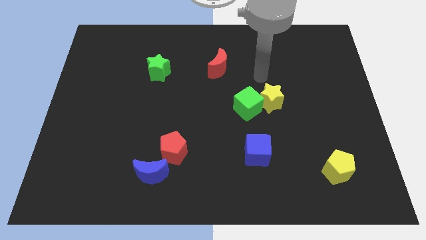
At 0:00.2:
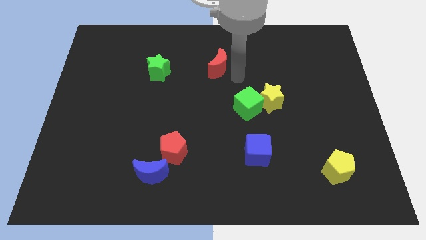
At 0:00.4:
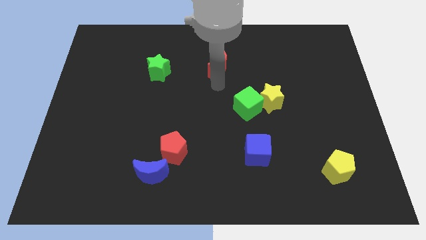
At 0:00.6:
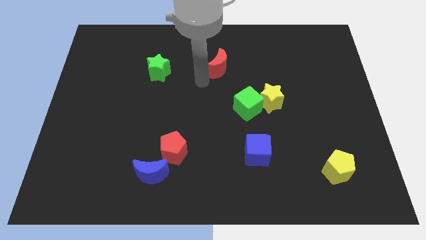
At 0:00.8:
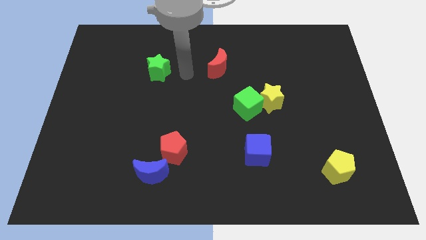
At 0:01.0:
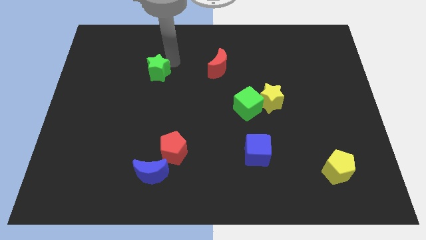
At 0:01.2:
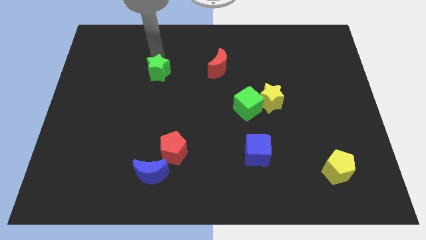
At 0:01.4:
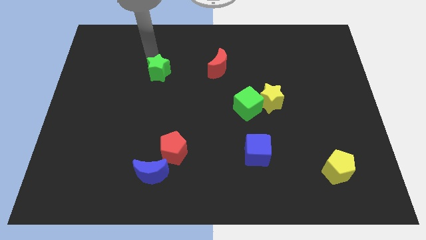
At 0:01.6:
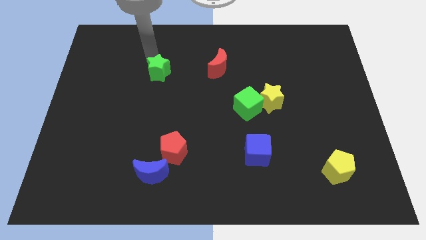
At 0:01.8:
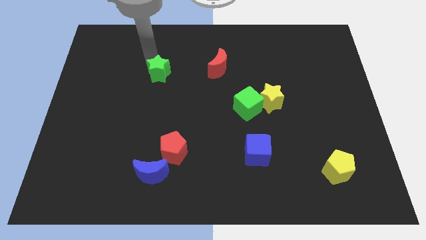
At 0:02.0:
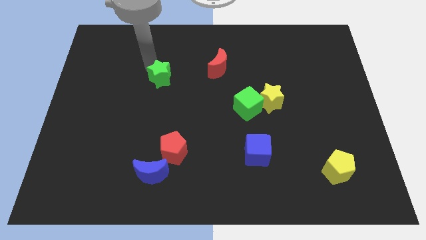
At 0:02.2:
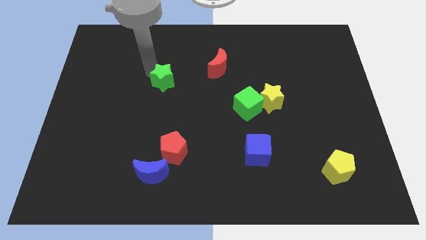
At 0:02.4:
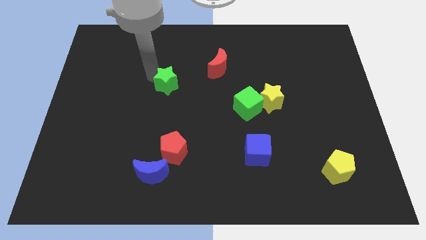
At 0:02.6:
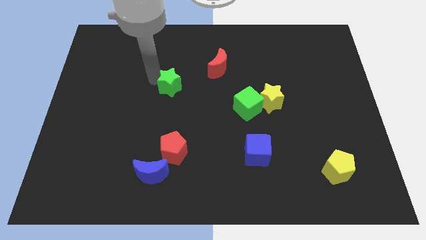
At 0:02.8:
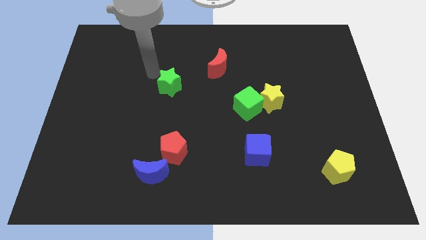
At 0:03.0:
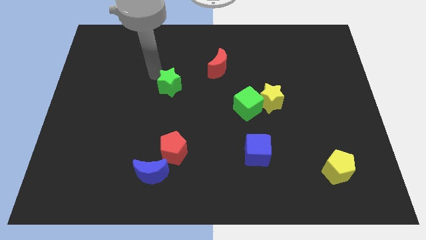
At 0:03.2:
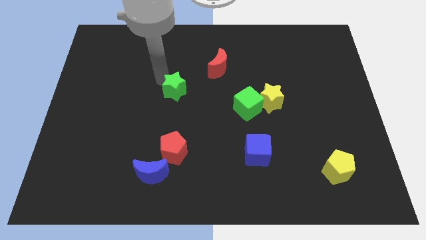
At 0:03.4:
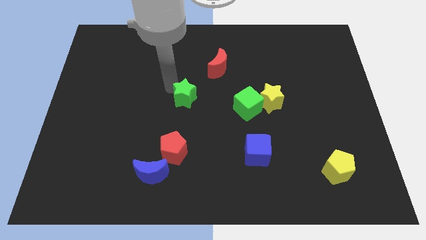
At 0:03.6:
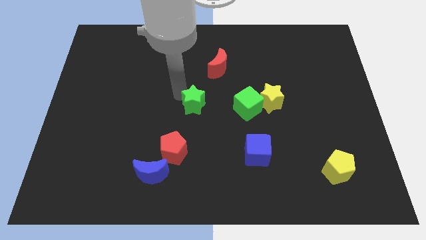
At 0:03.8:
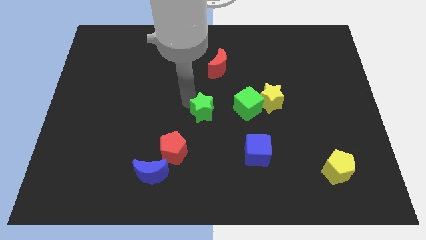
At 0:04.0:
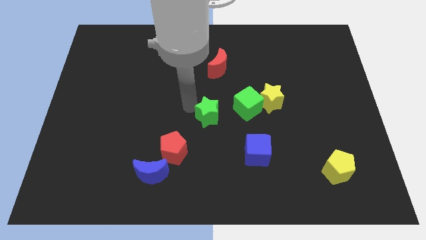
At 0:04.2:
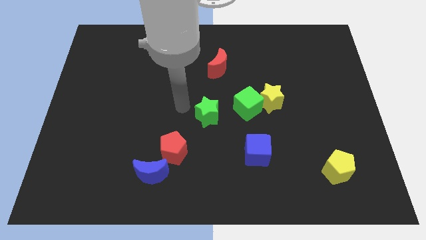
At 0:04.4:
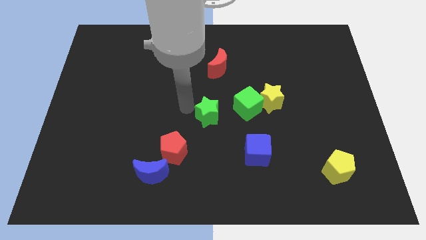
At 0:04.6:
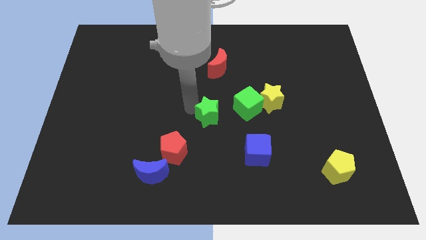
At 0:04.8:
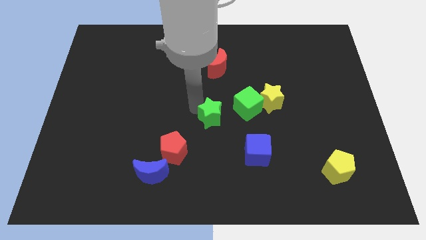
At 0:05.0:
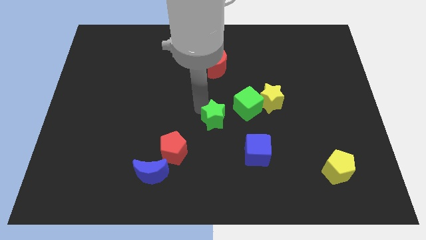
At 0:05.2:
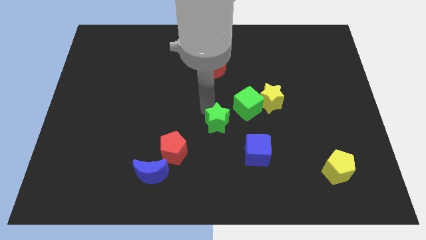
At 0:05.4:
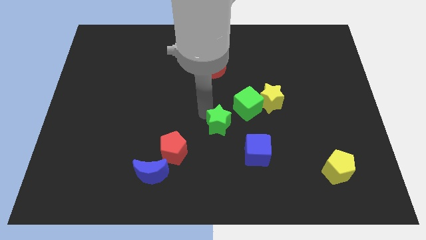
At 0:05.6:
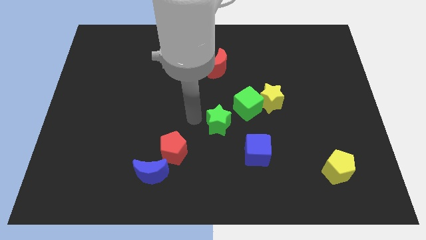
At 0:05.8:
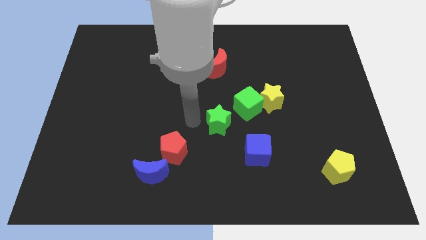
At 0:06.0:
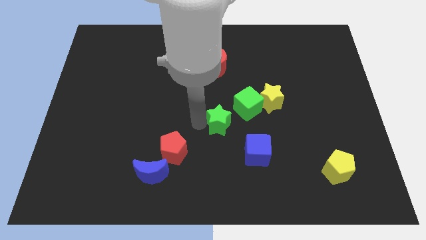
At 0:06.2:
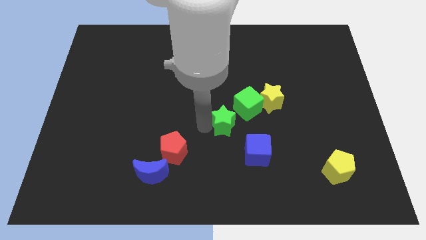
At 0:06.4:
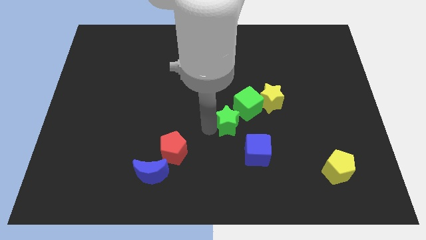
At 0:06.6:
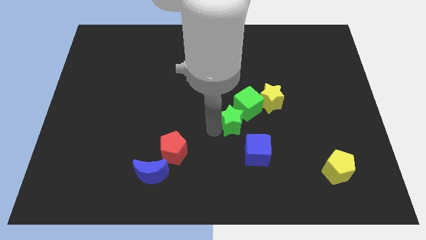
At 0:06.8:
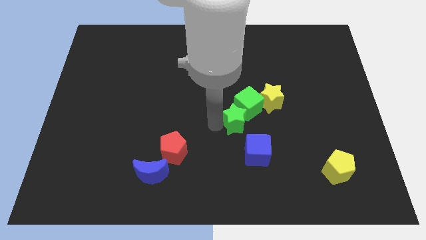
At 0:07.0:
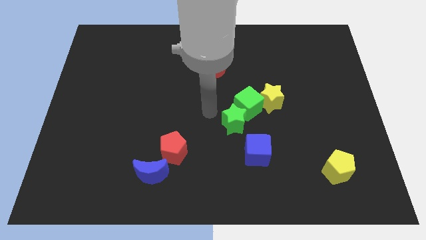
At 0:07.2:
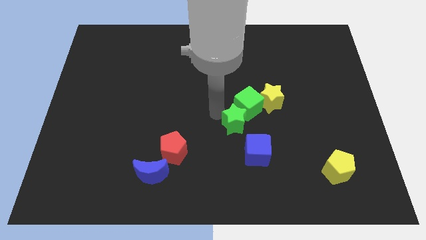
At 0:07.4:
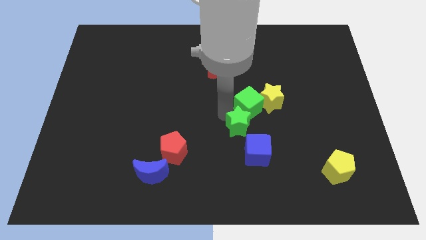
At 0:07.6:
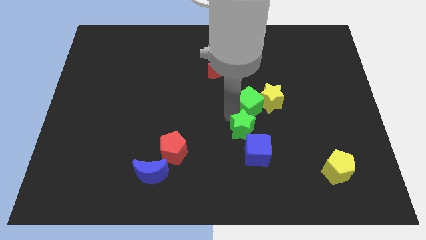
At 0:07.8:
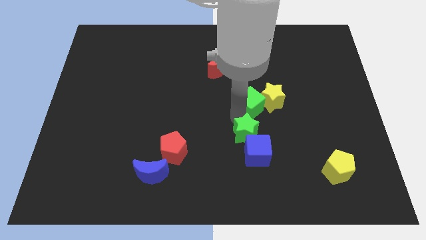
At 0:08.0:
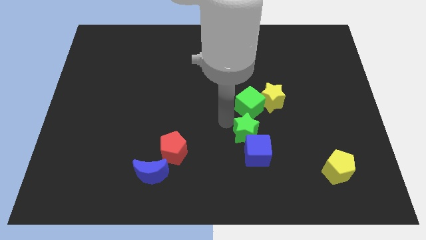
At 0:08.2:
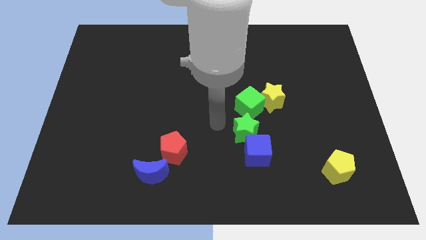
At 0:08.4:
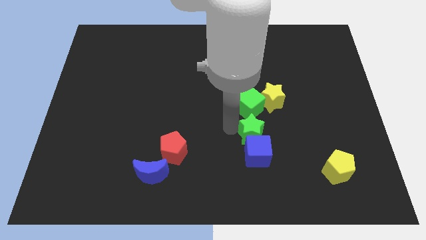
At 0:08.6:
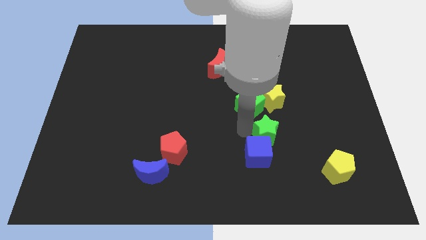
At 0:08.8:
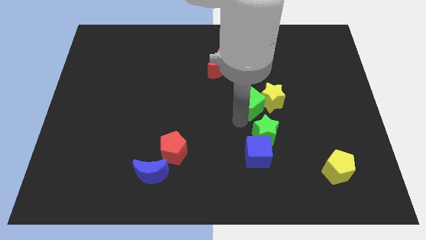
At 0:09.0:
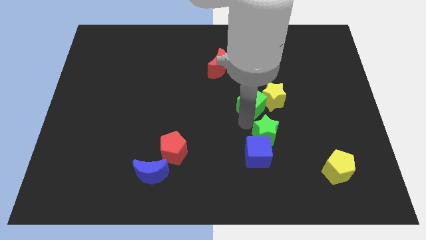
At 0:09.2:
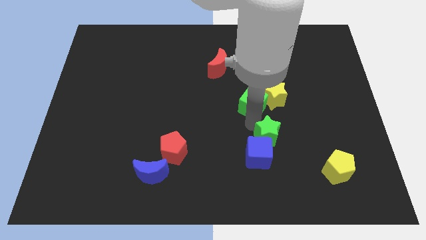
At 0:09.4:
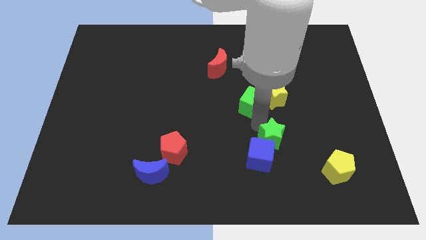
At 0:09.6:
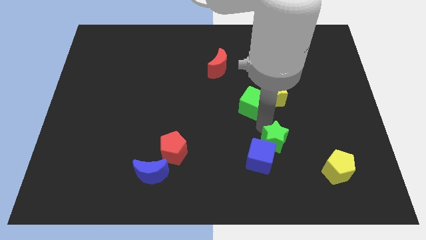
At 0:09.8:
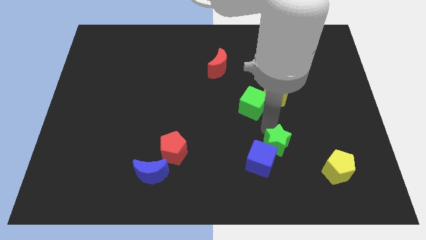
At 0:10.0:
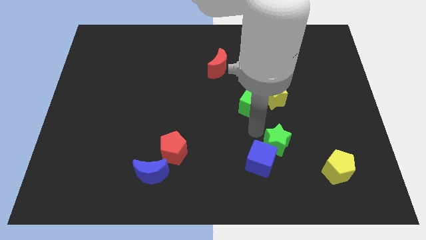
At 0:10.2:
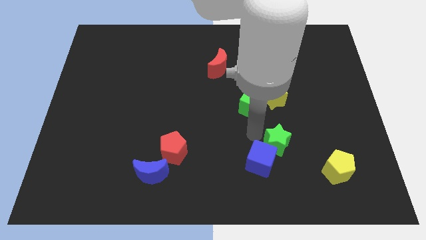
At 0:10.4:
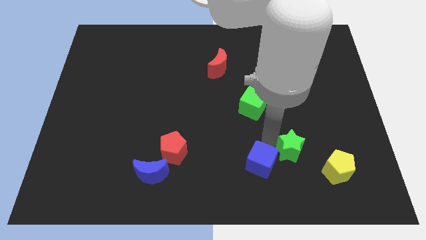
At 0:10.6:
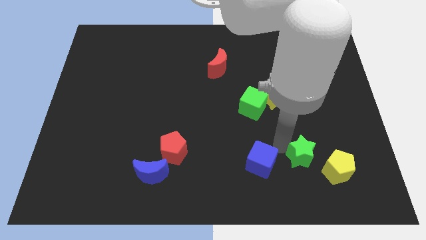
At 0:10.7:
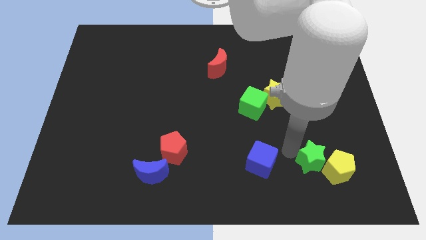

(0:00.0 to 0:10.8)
put the green star towards the yellow pentagon

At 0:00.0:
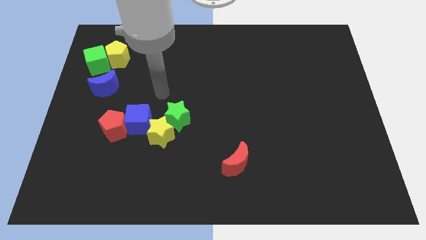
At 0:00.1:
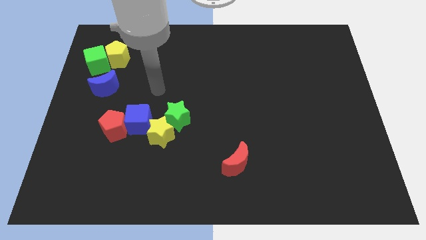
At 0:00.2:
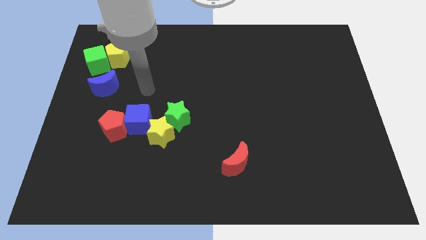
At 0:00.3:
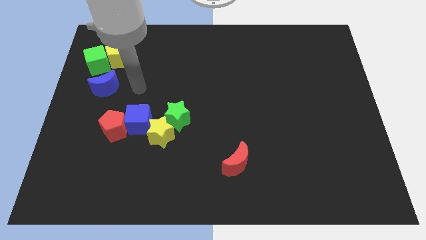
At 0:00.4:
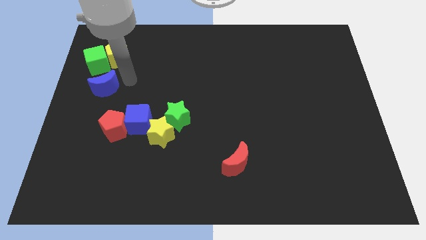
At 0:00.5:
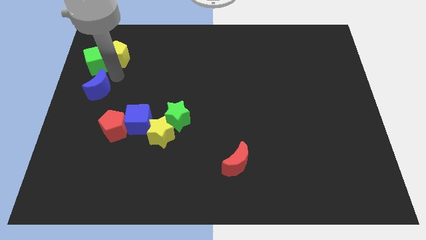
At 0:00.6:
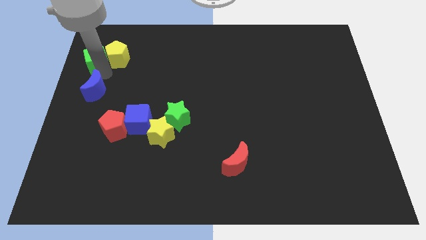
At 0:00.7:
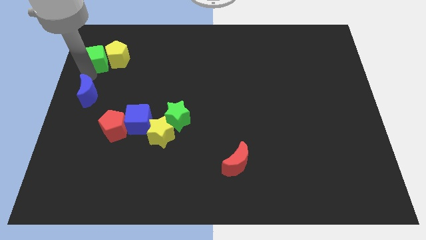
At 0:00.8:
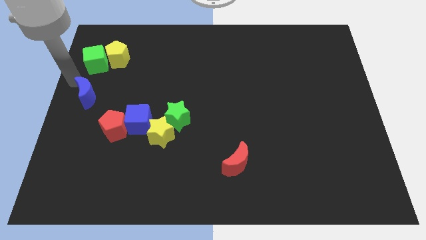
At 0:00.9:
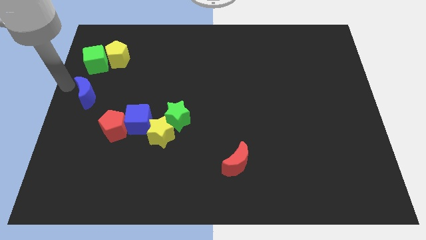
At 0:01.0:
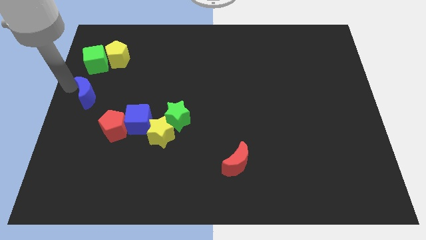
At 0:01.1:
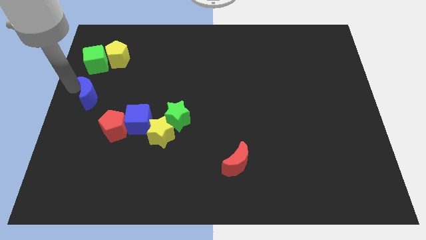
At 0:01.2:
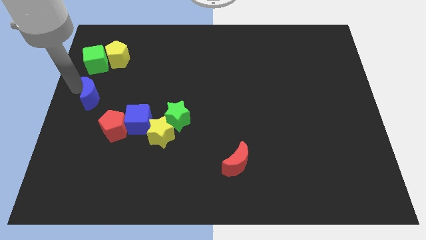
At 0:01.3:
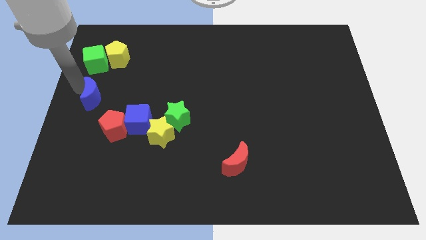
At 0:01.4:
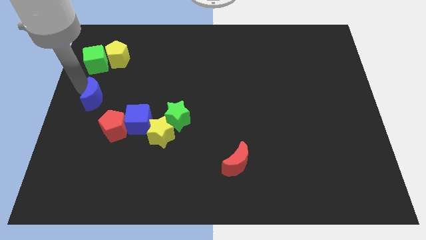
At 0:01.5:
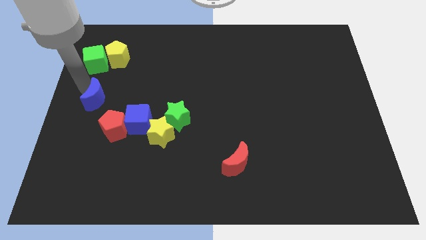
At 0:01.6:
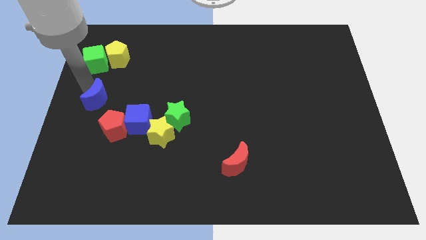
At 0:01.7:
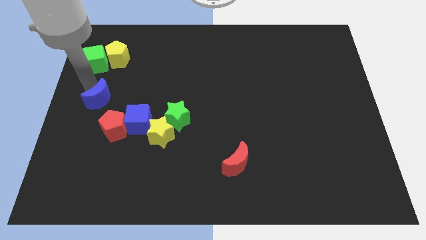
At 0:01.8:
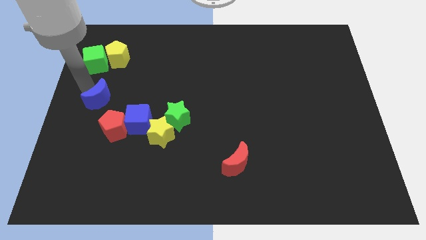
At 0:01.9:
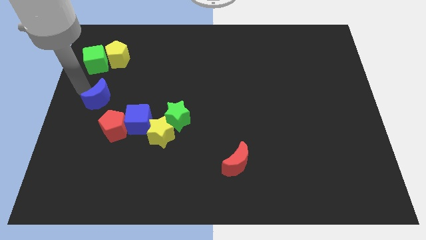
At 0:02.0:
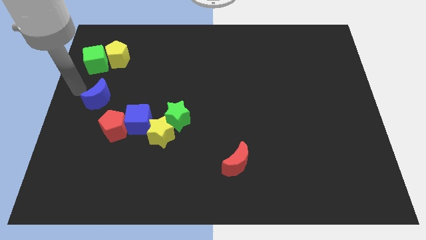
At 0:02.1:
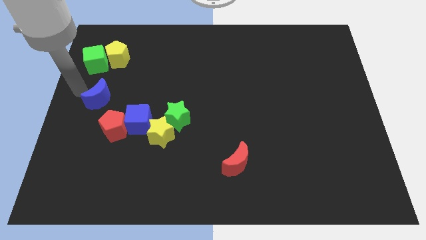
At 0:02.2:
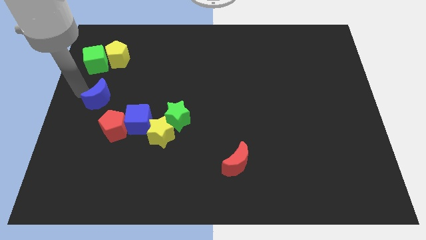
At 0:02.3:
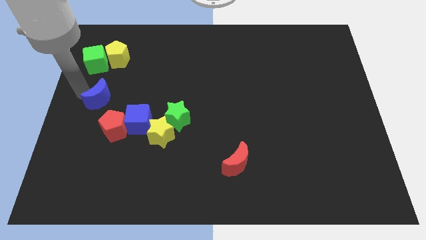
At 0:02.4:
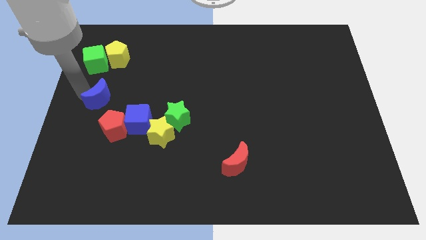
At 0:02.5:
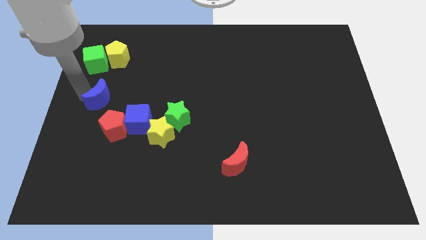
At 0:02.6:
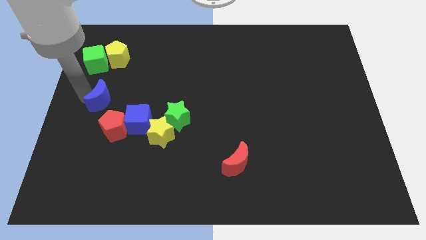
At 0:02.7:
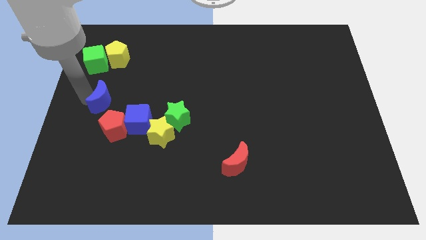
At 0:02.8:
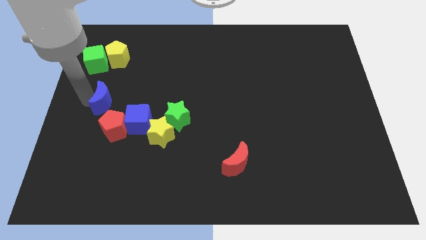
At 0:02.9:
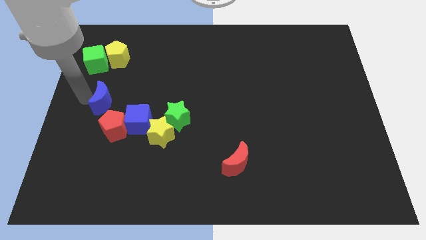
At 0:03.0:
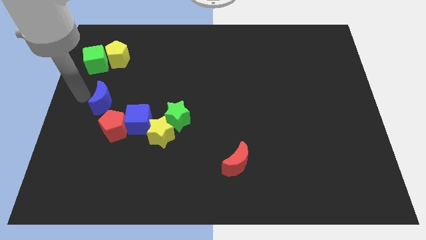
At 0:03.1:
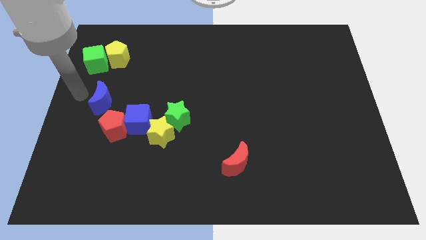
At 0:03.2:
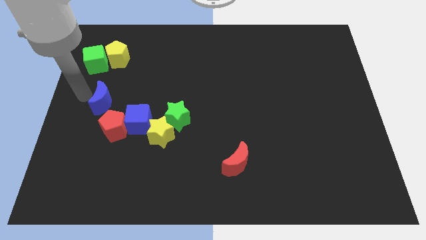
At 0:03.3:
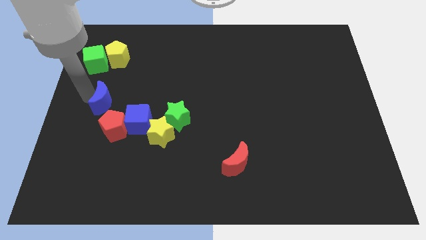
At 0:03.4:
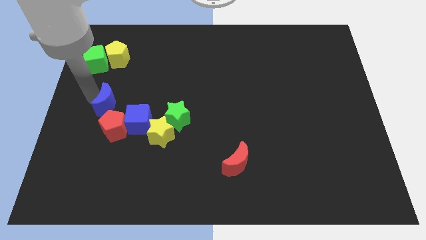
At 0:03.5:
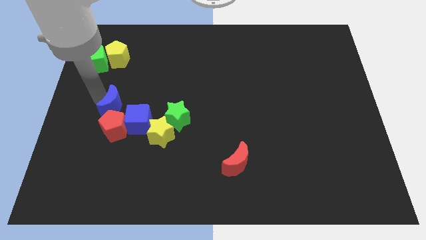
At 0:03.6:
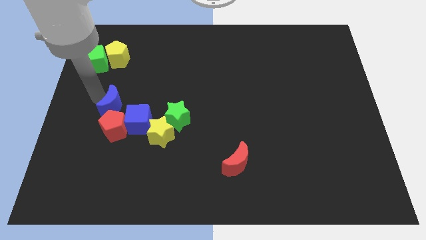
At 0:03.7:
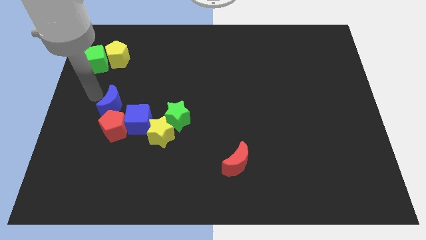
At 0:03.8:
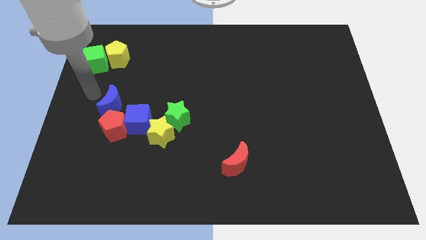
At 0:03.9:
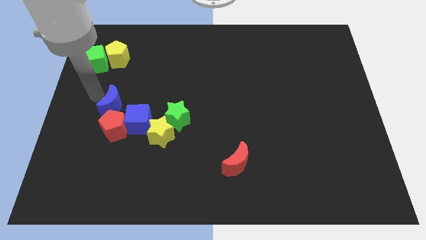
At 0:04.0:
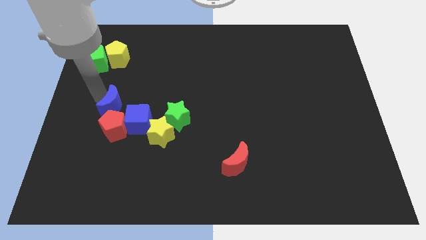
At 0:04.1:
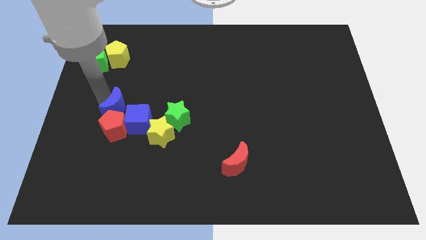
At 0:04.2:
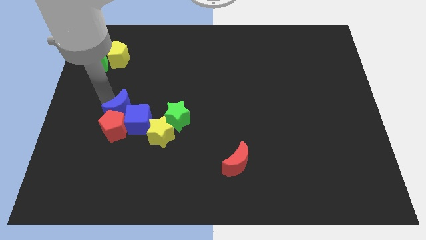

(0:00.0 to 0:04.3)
slide the blue moon next to the blue cube
